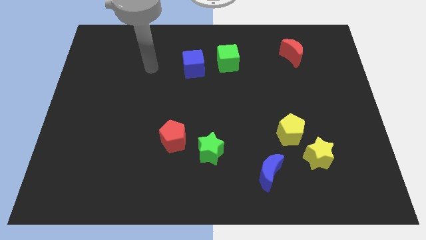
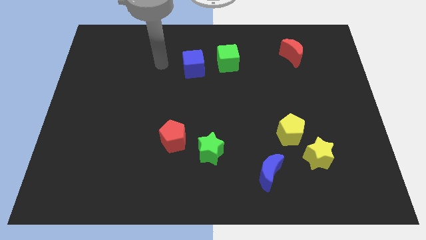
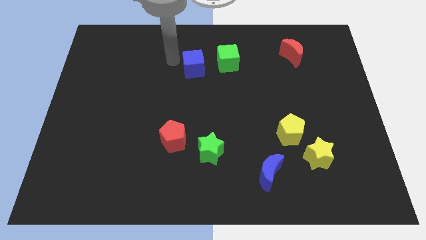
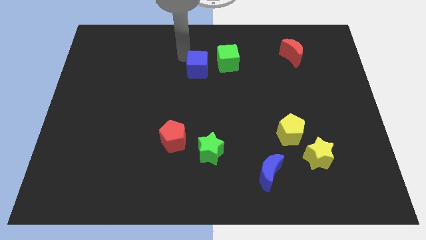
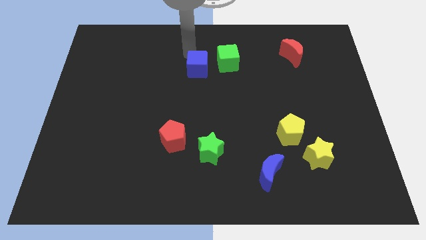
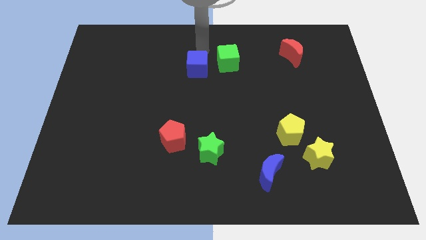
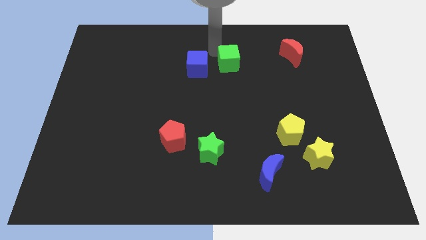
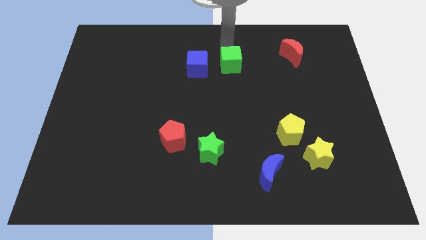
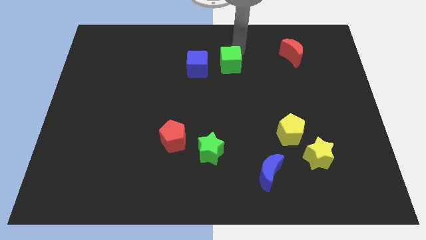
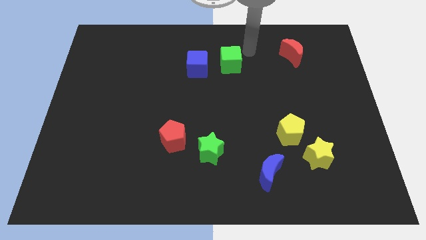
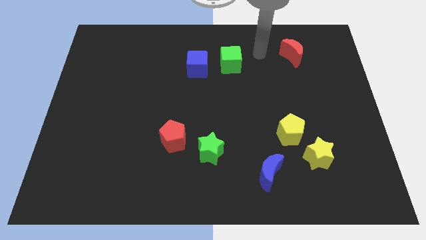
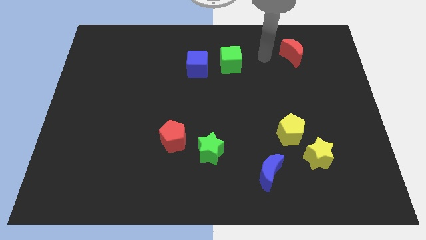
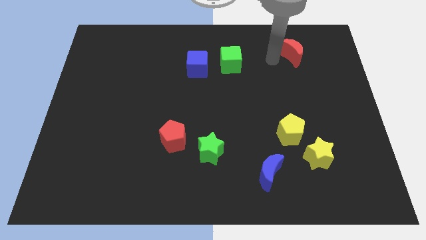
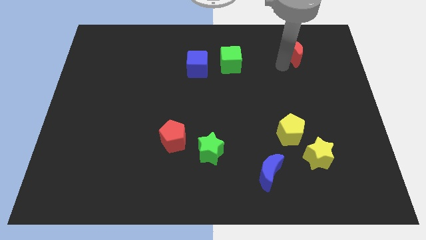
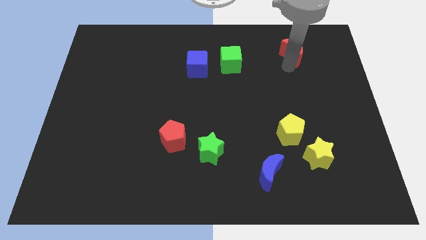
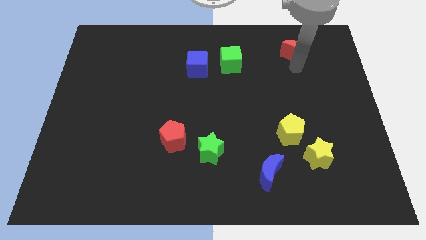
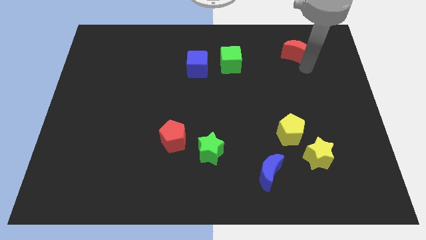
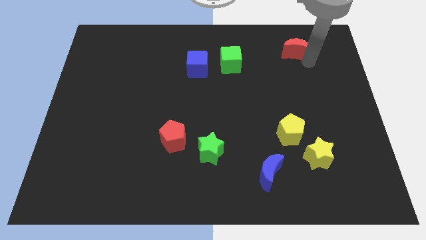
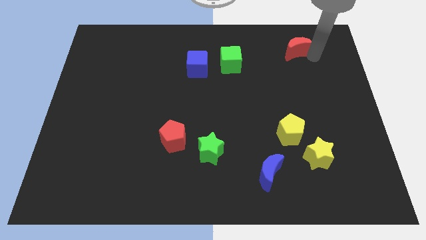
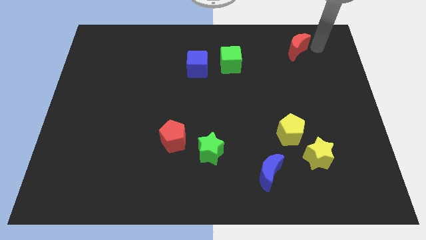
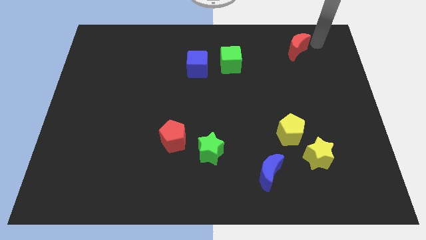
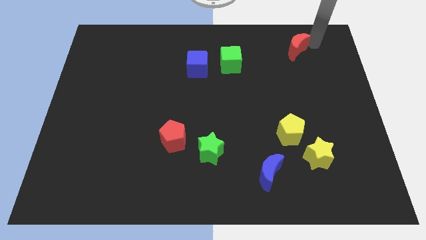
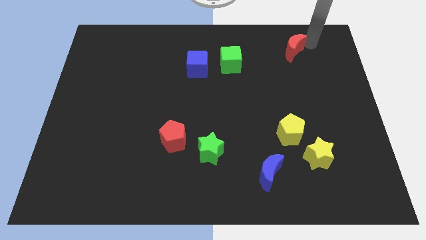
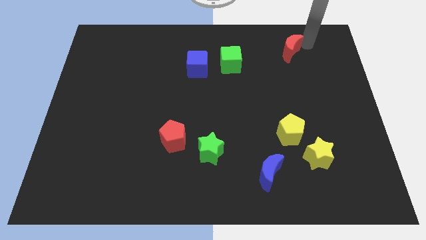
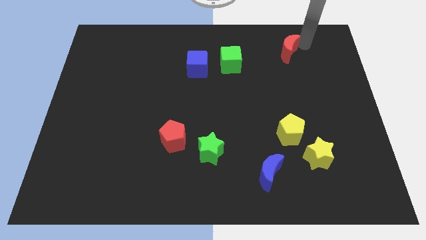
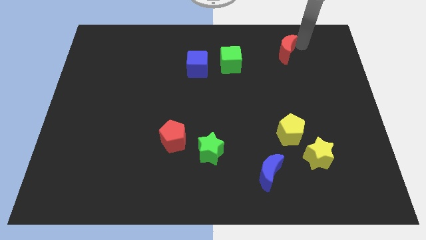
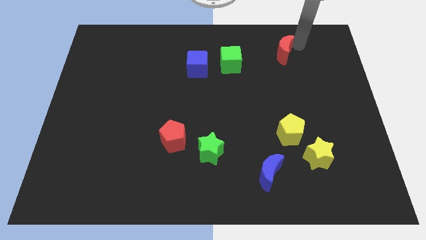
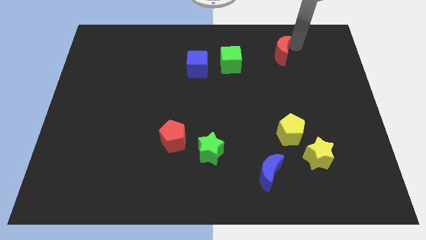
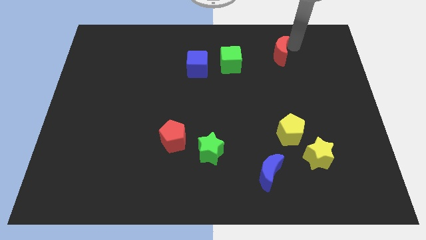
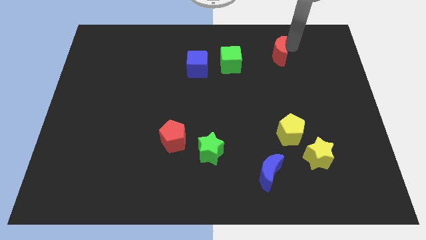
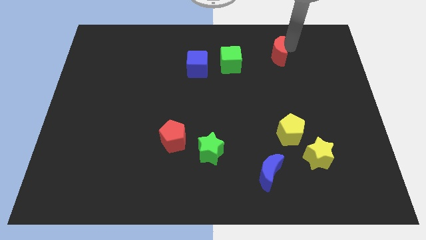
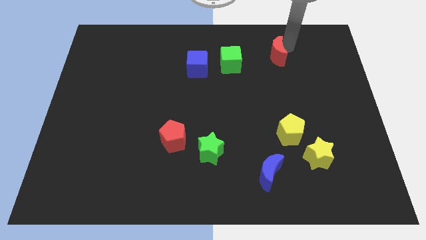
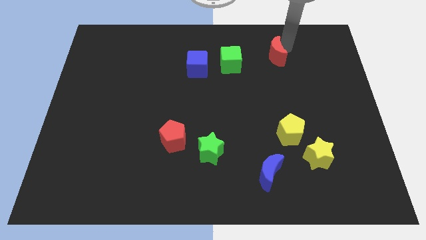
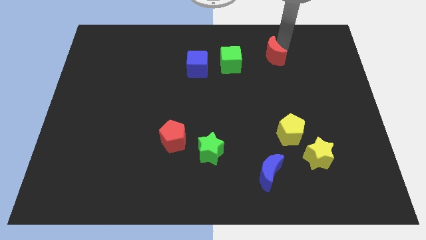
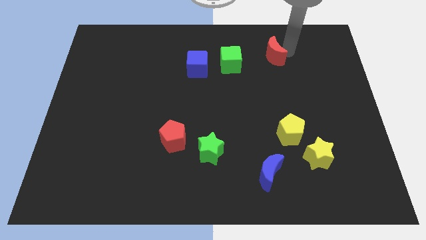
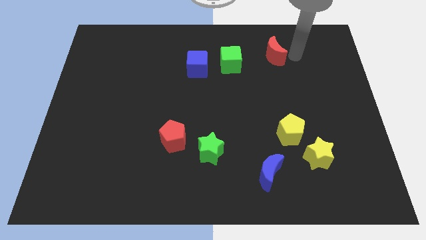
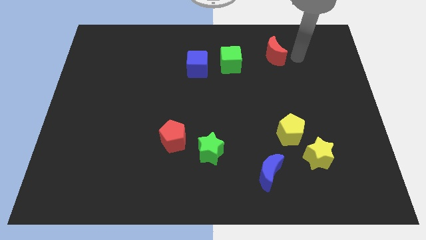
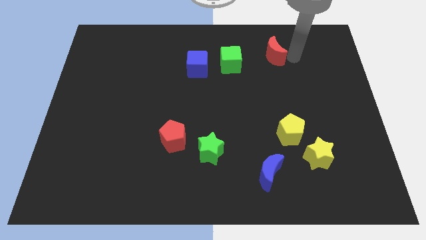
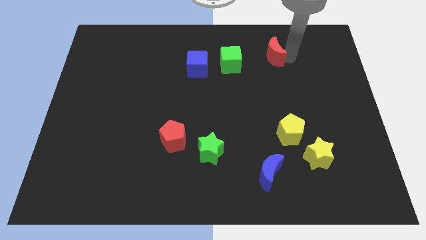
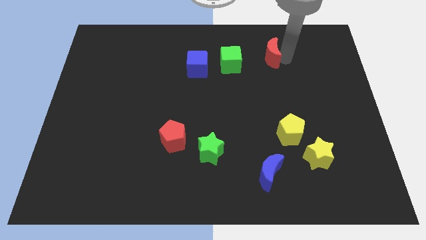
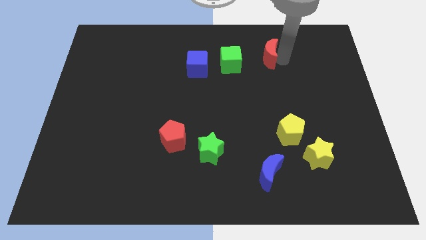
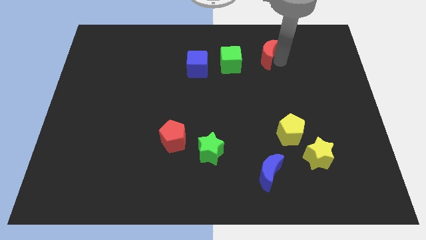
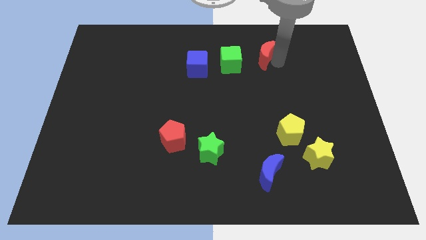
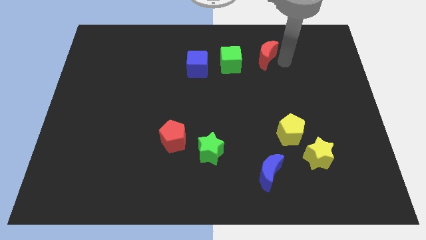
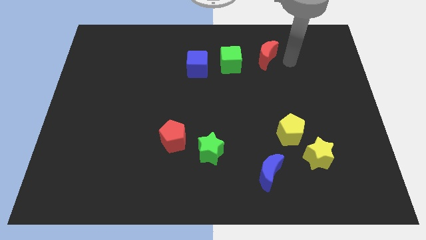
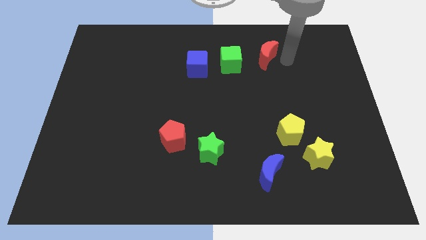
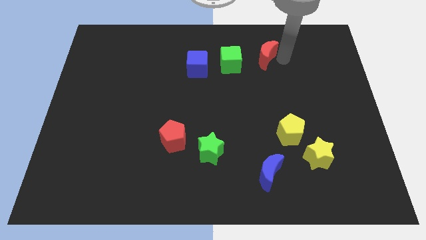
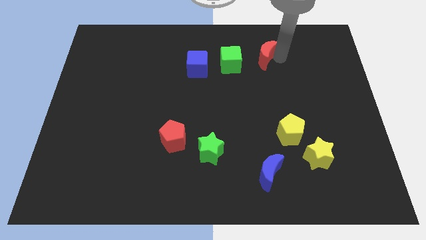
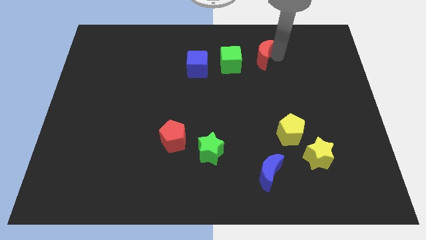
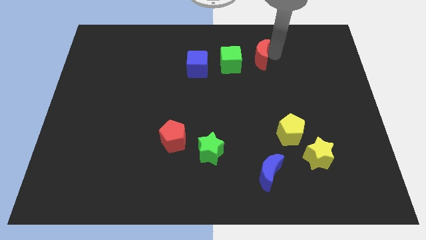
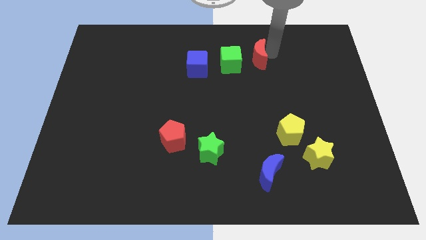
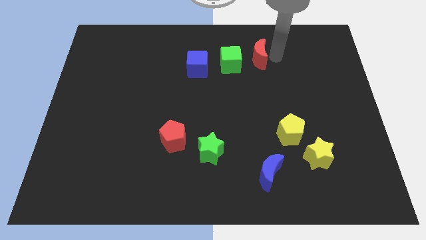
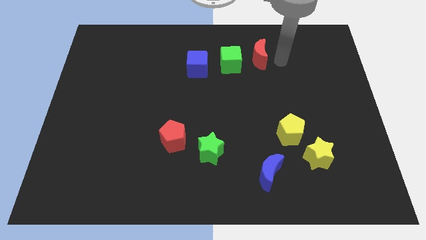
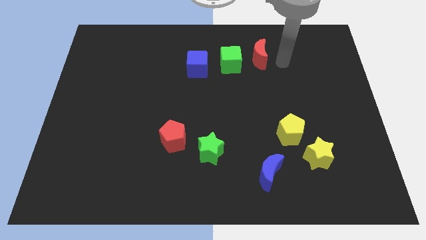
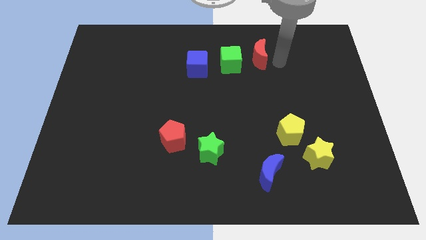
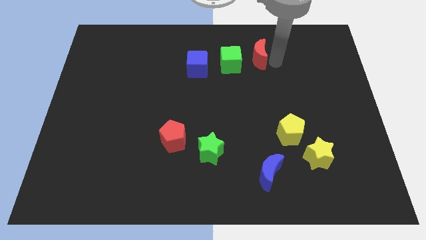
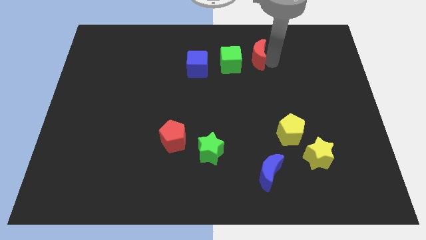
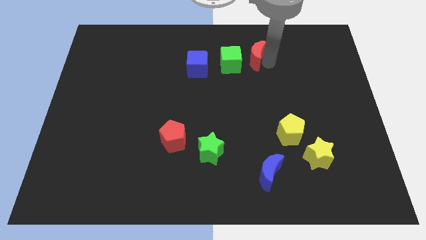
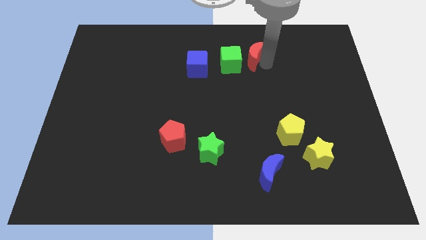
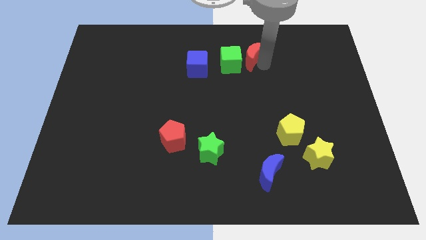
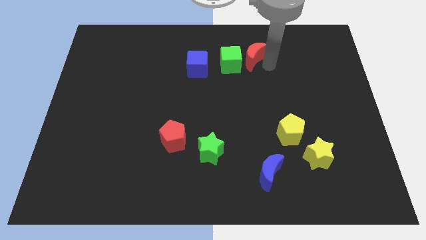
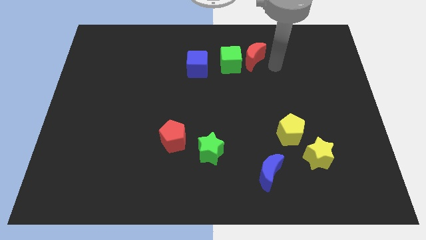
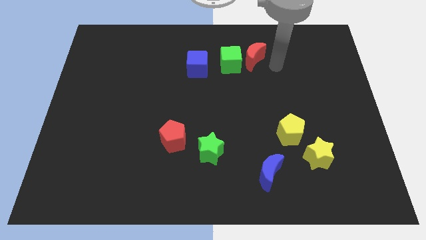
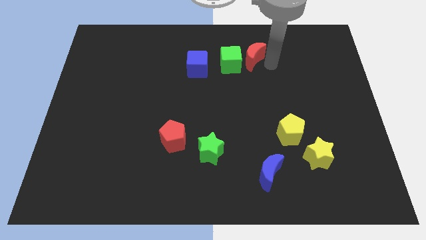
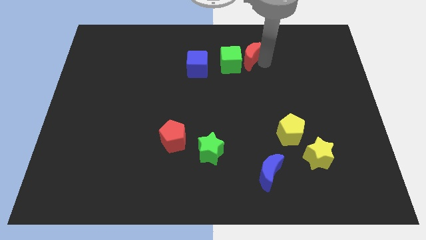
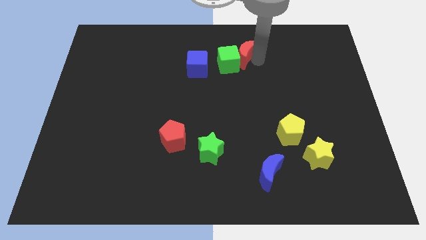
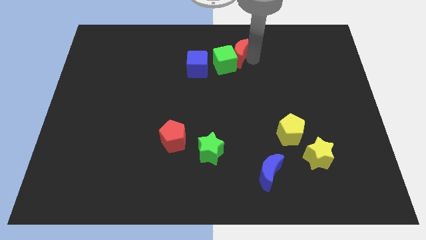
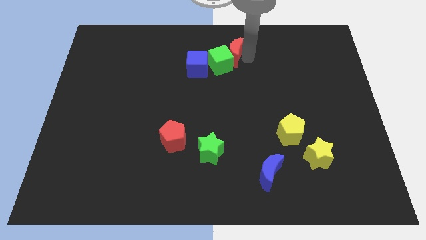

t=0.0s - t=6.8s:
move the red moon to the towards your base
